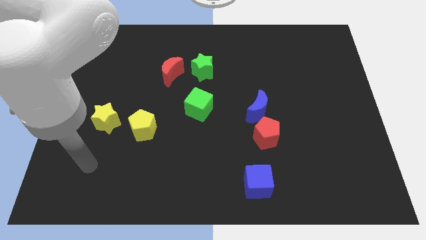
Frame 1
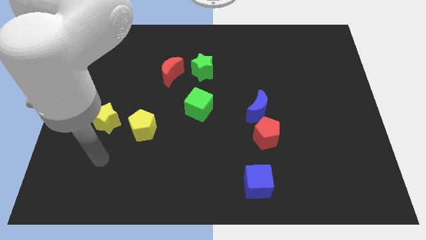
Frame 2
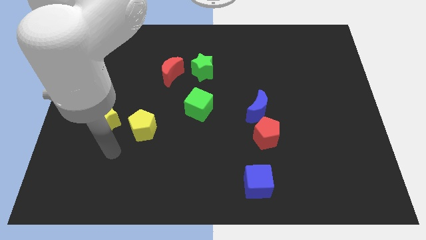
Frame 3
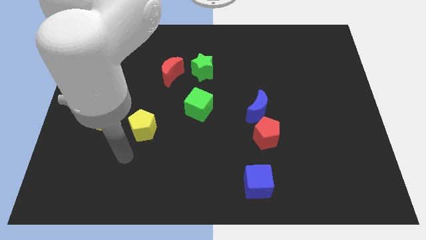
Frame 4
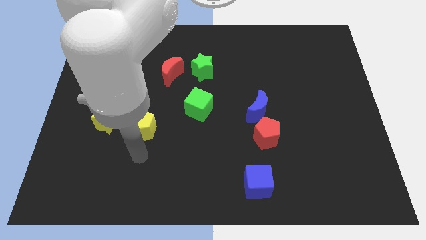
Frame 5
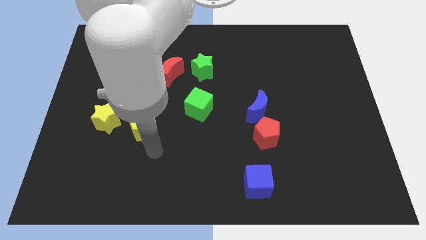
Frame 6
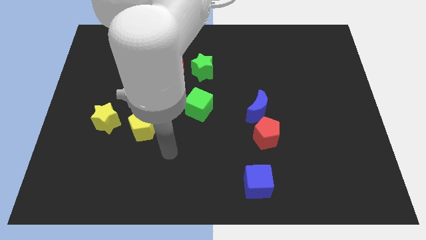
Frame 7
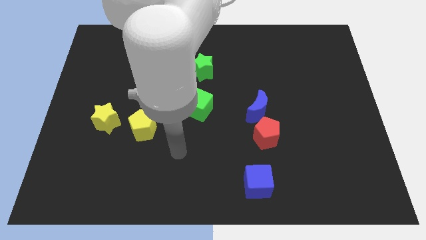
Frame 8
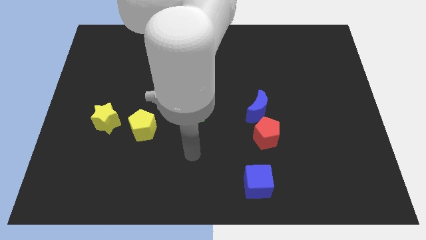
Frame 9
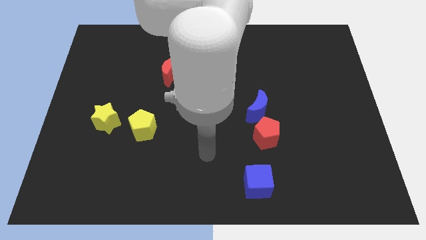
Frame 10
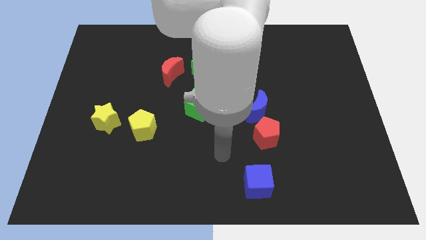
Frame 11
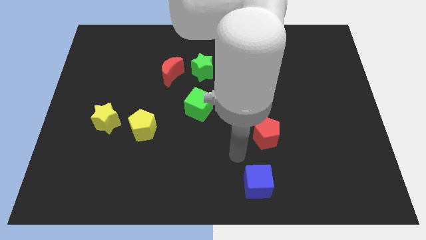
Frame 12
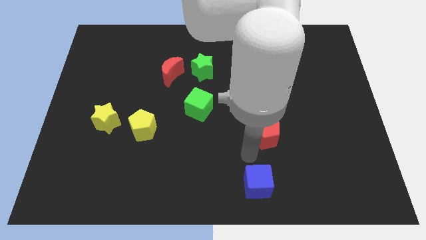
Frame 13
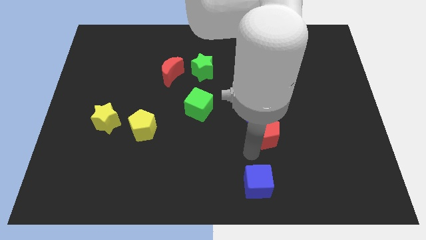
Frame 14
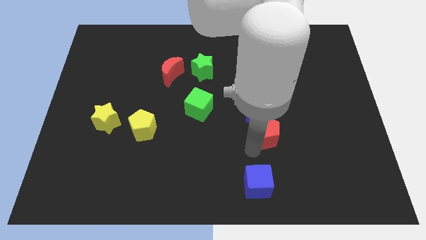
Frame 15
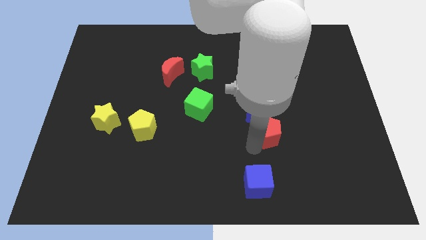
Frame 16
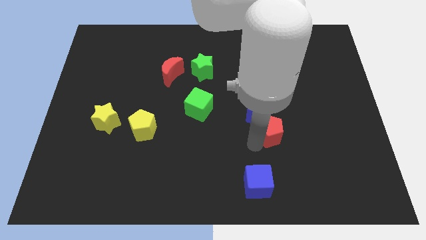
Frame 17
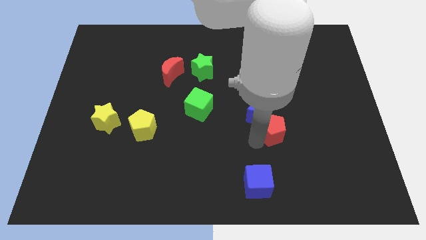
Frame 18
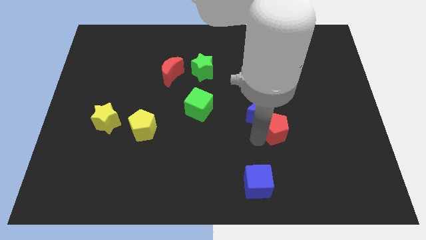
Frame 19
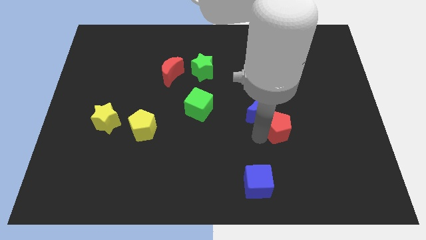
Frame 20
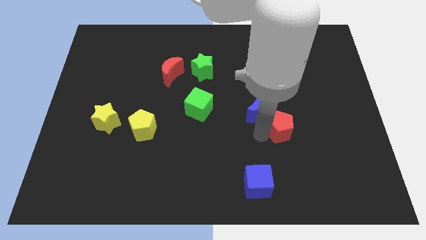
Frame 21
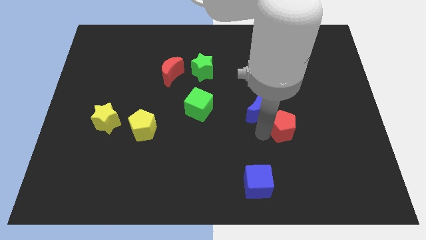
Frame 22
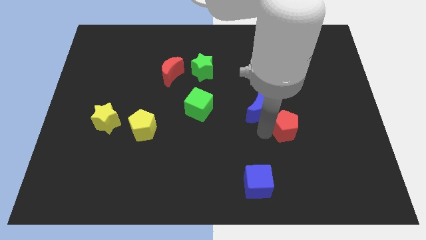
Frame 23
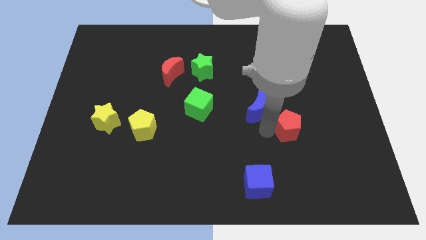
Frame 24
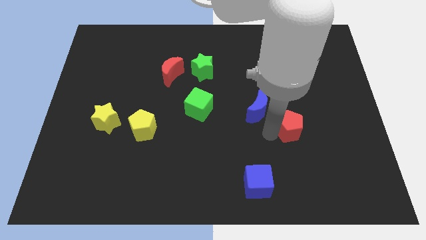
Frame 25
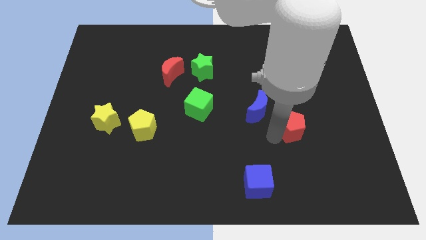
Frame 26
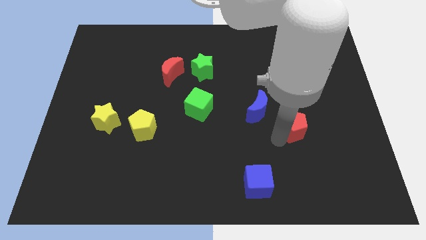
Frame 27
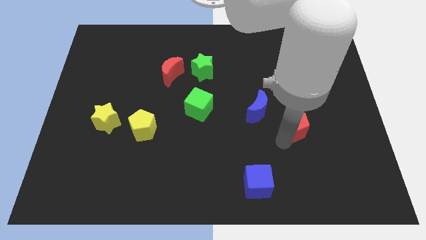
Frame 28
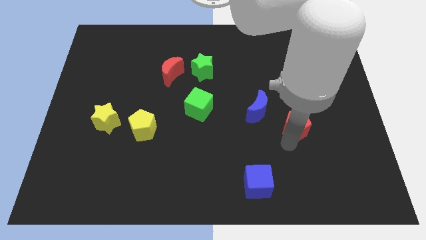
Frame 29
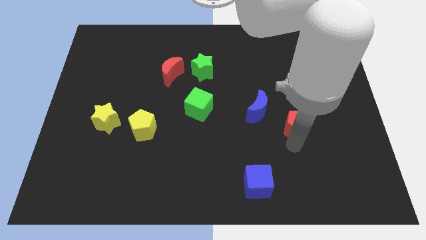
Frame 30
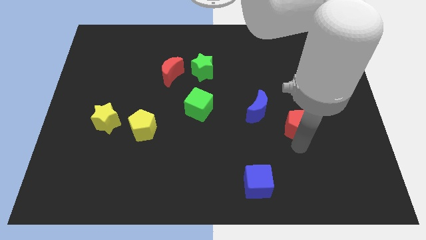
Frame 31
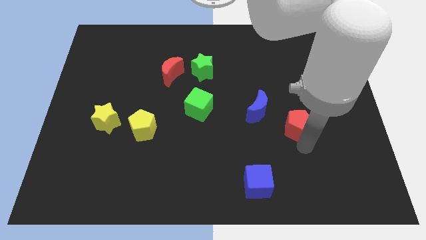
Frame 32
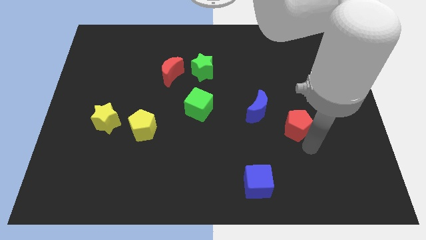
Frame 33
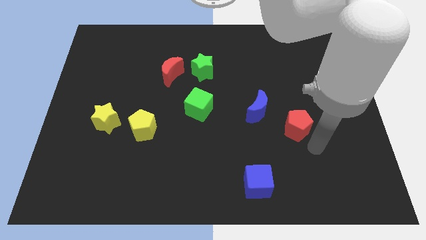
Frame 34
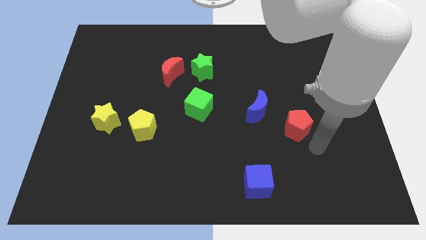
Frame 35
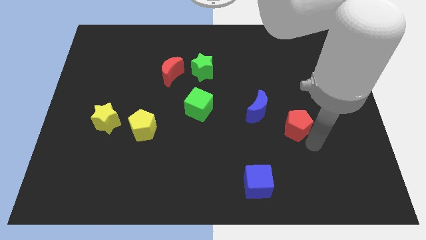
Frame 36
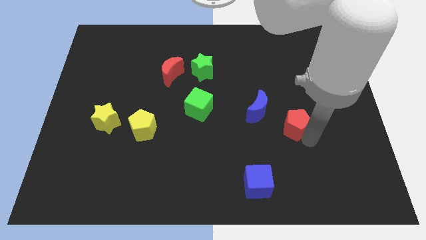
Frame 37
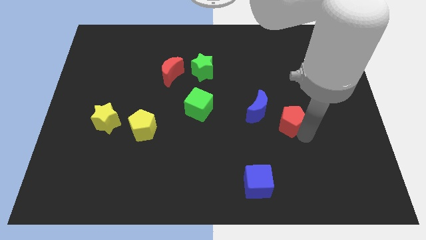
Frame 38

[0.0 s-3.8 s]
push the red pentagon up and right a little bit

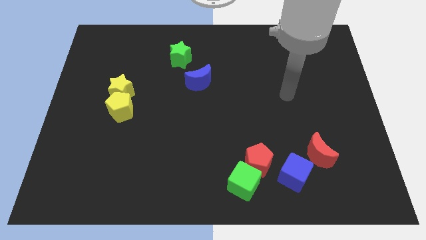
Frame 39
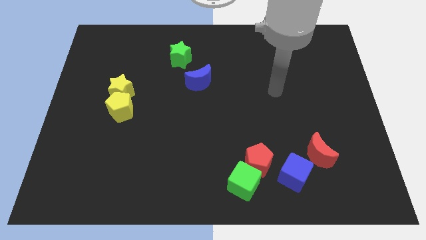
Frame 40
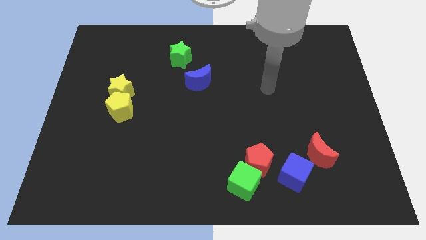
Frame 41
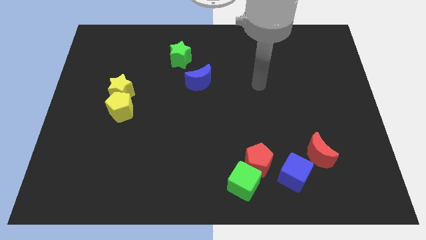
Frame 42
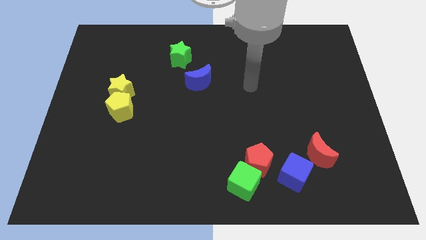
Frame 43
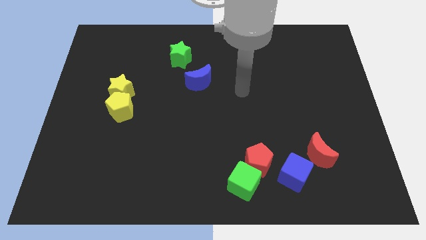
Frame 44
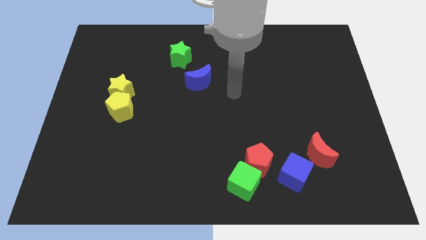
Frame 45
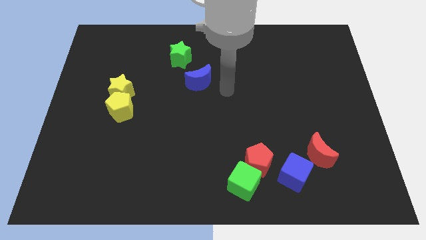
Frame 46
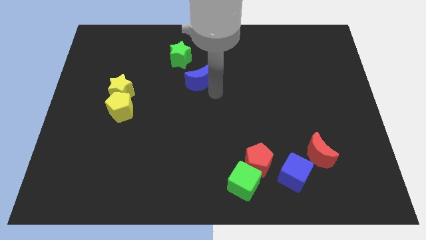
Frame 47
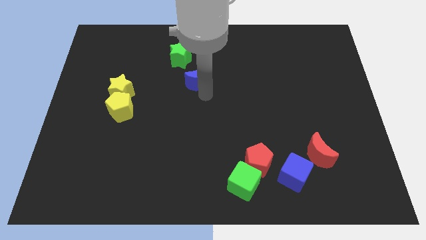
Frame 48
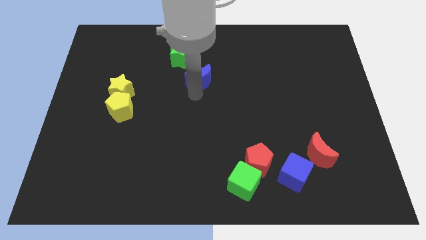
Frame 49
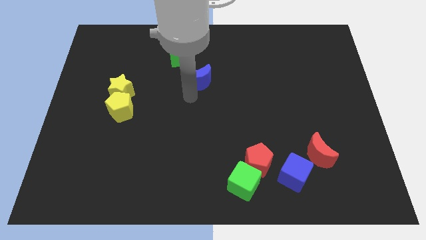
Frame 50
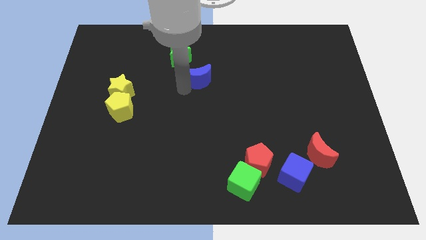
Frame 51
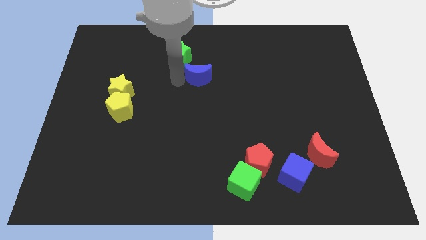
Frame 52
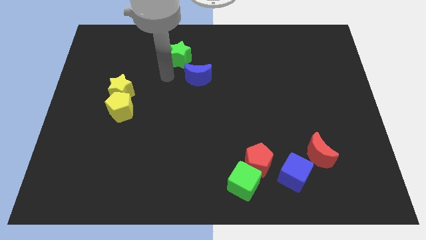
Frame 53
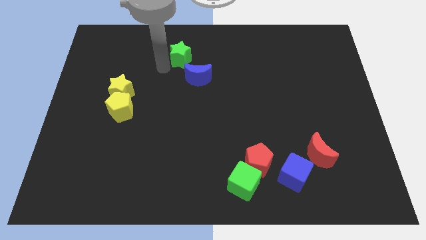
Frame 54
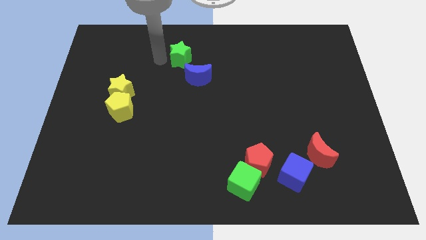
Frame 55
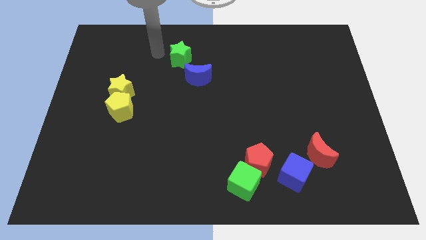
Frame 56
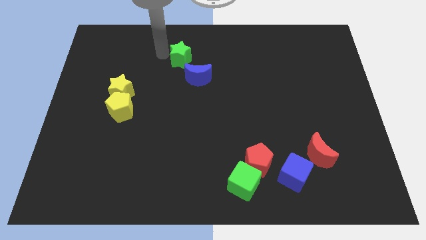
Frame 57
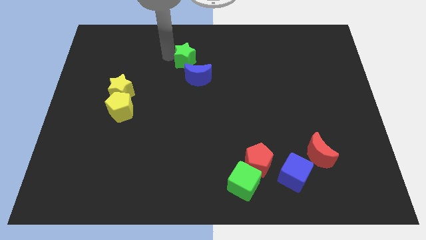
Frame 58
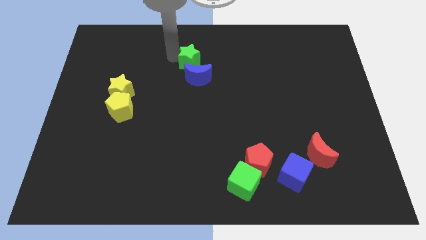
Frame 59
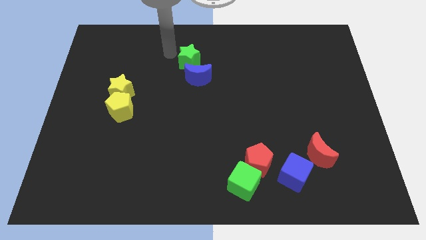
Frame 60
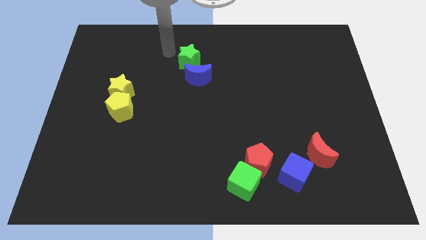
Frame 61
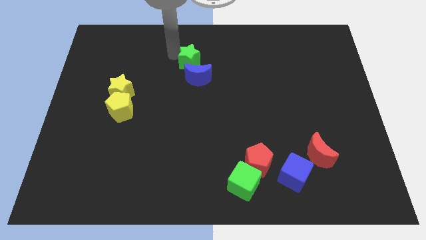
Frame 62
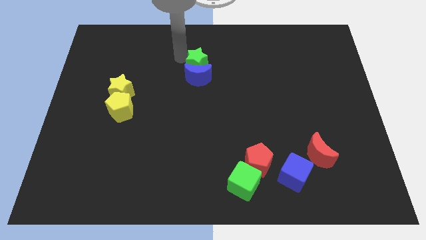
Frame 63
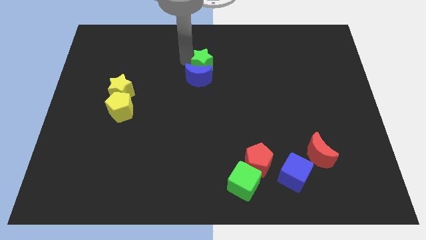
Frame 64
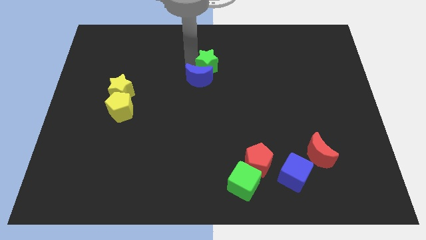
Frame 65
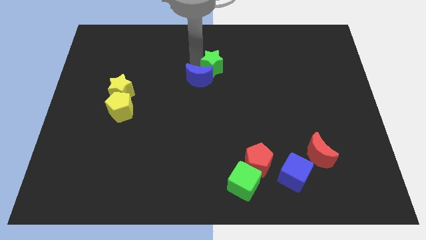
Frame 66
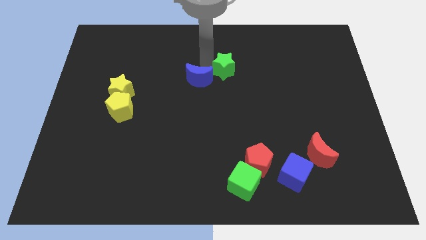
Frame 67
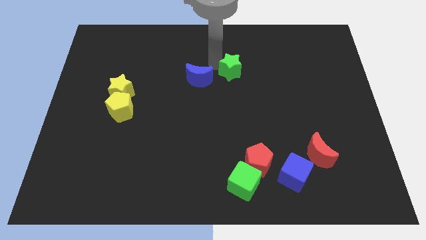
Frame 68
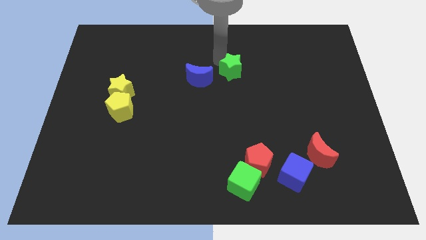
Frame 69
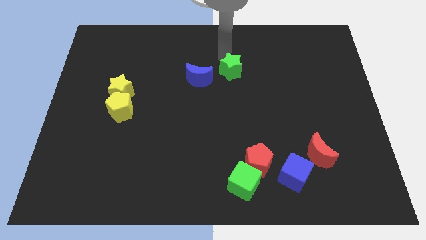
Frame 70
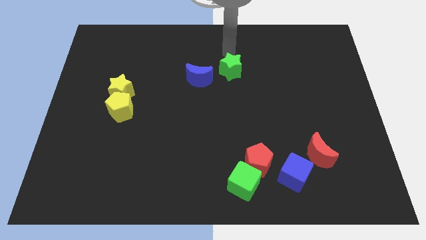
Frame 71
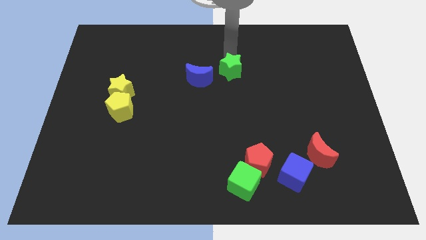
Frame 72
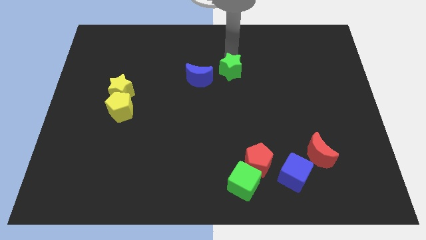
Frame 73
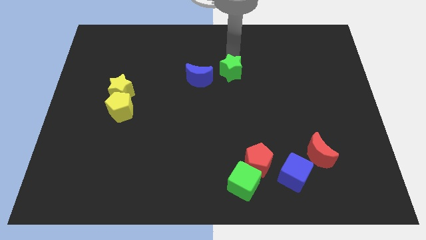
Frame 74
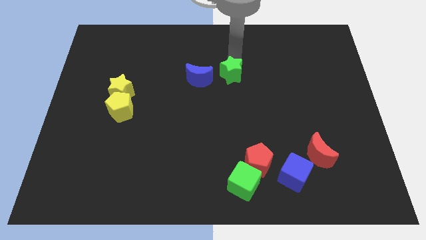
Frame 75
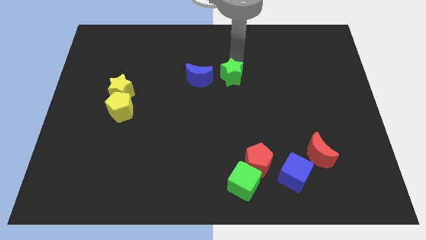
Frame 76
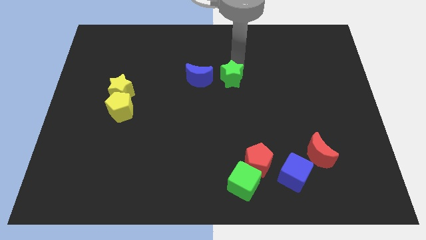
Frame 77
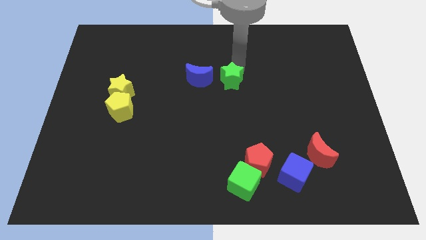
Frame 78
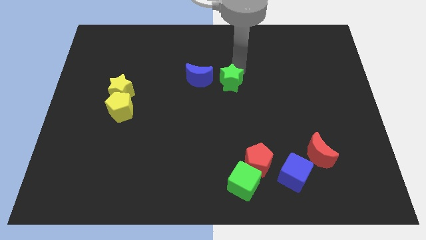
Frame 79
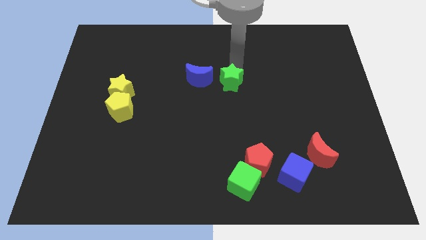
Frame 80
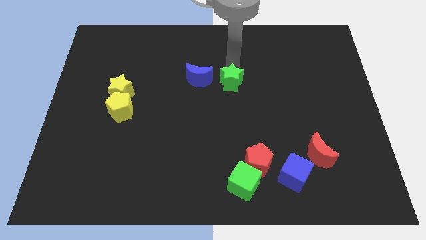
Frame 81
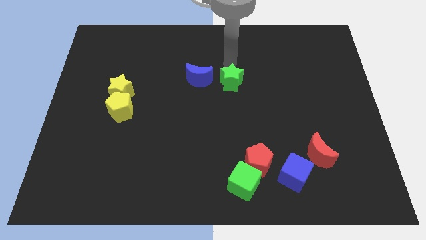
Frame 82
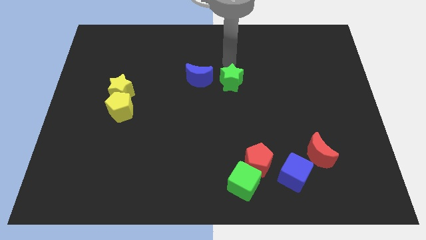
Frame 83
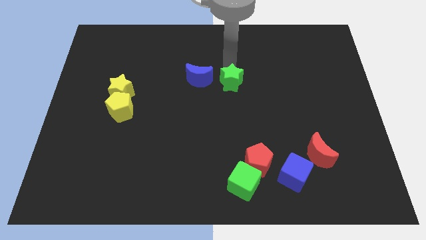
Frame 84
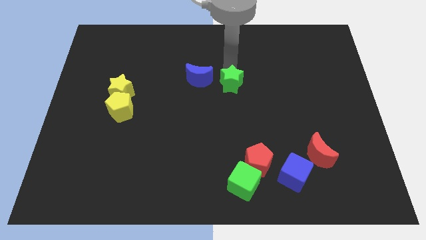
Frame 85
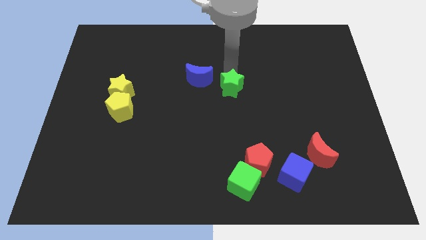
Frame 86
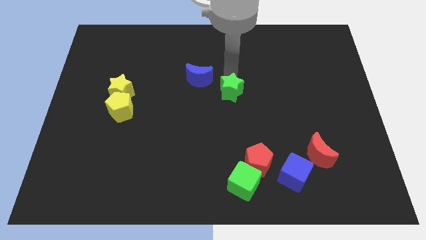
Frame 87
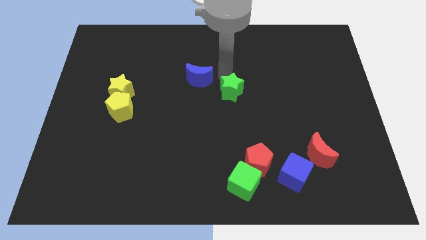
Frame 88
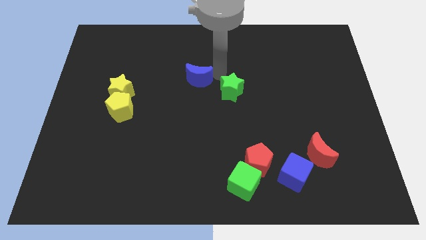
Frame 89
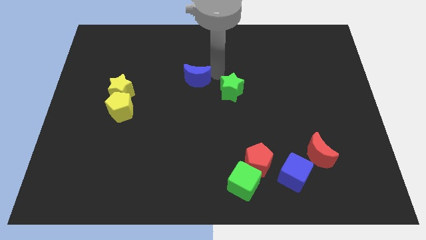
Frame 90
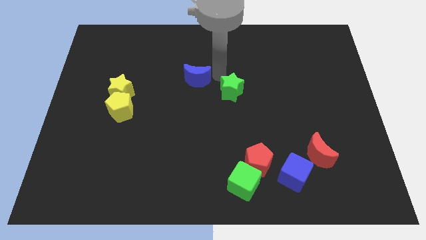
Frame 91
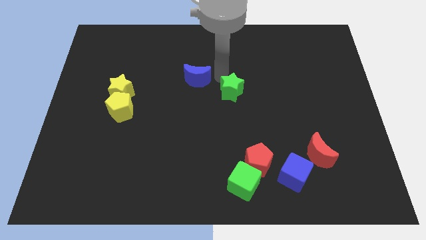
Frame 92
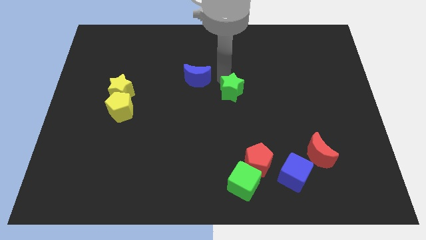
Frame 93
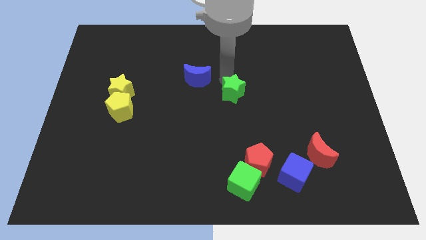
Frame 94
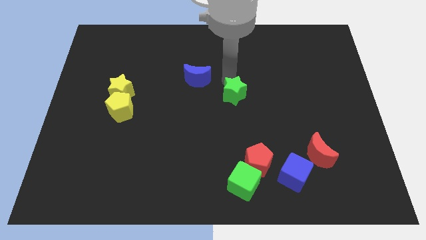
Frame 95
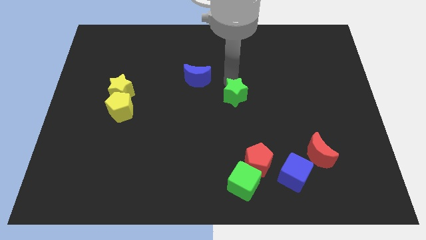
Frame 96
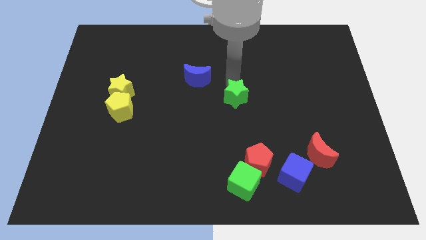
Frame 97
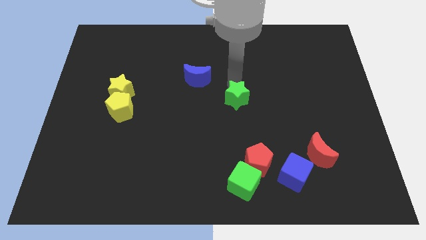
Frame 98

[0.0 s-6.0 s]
slide the green star down and right
